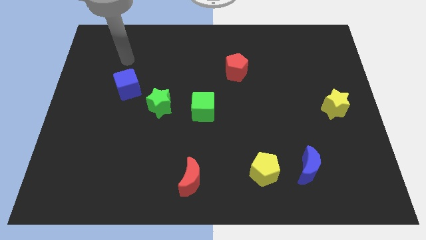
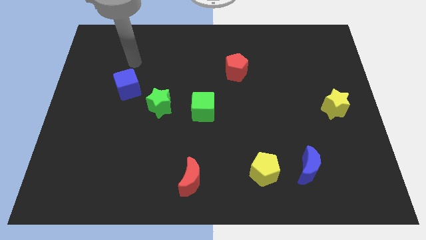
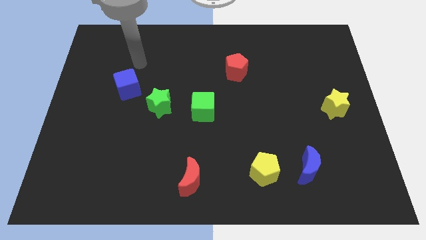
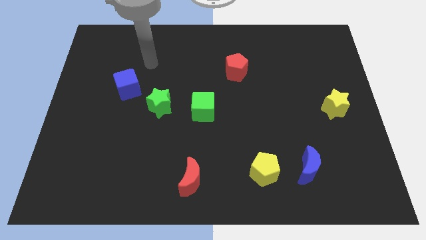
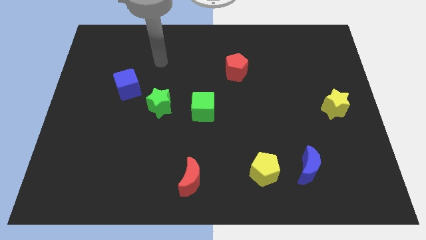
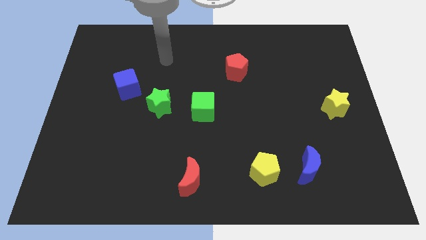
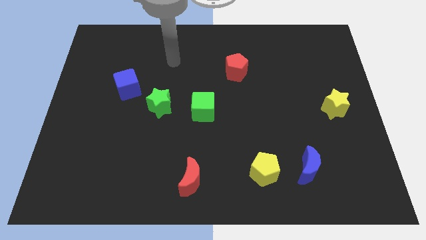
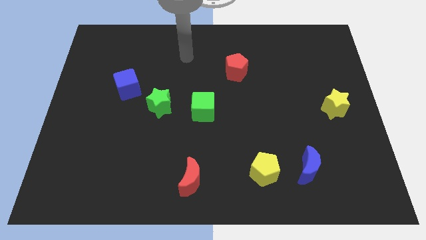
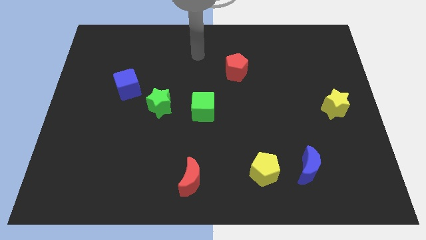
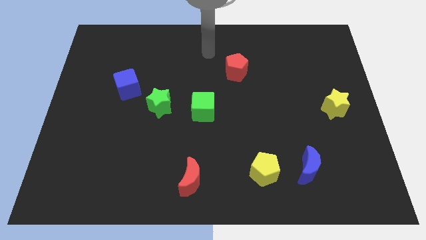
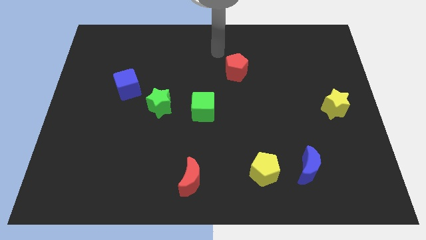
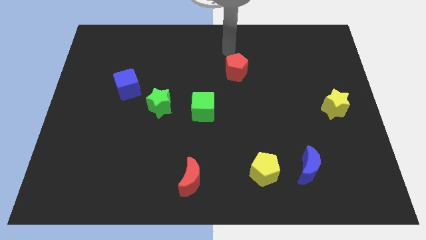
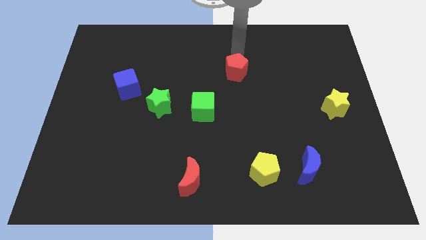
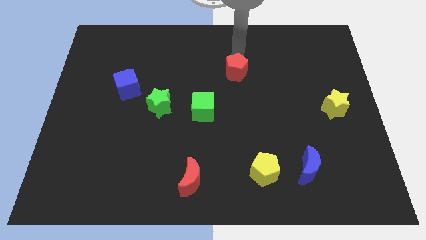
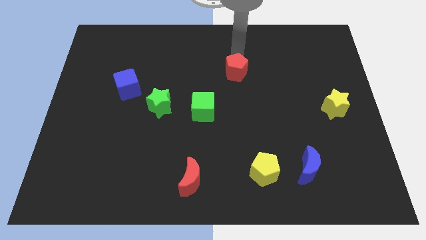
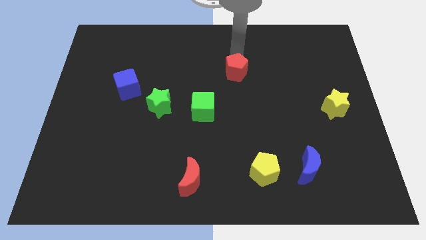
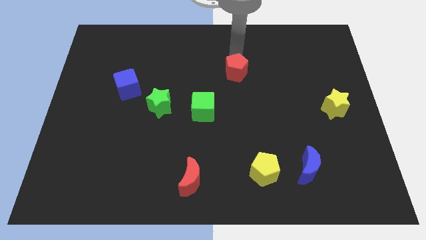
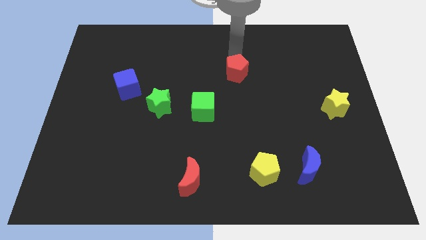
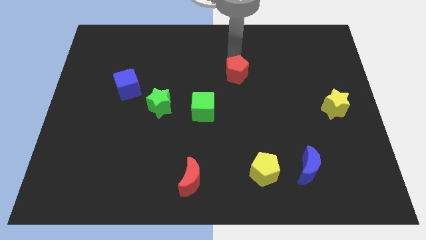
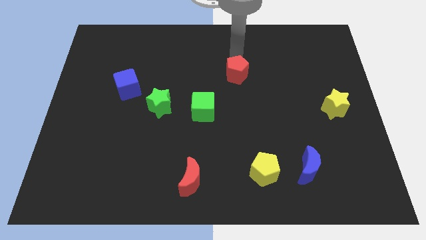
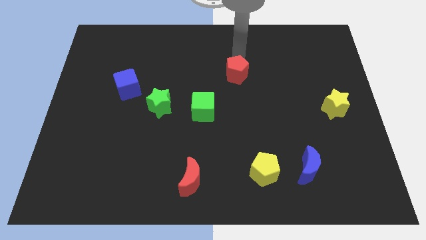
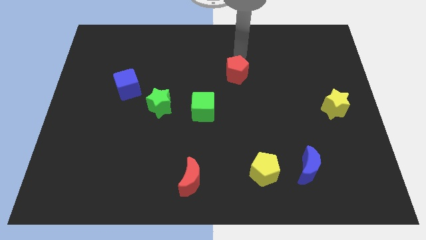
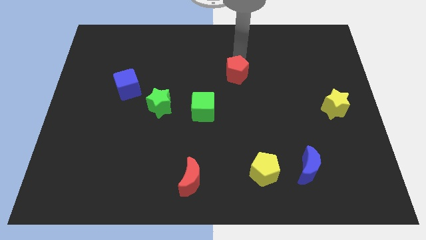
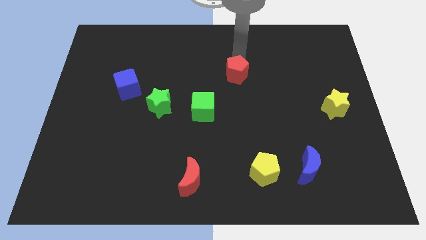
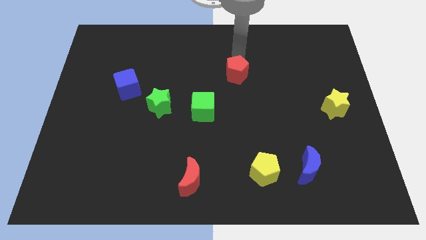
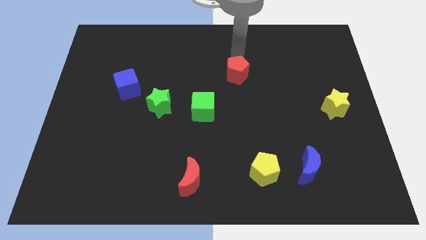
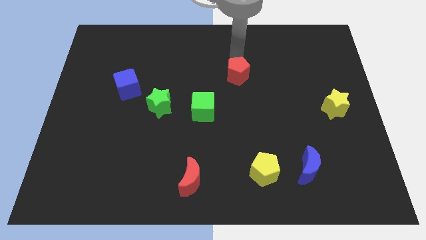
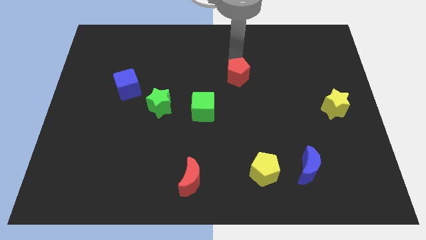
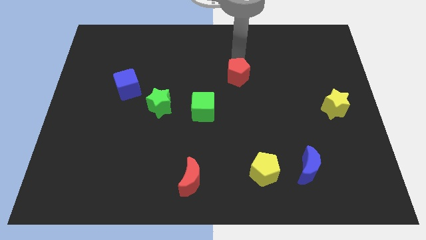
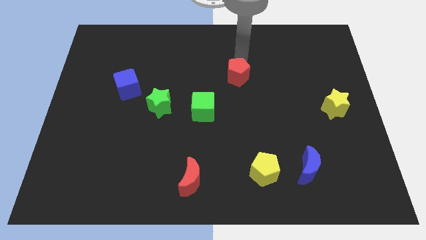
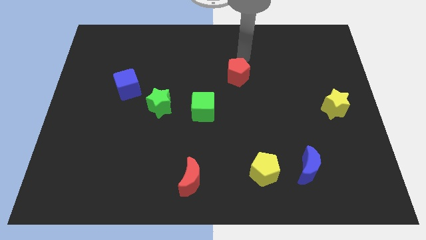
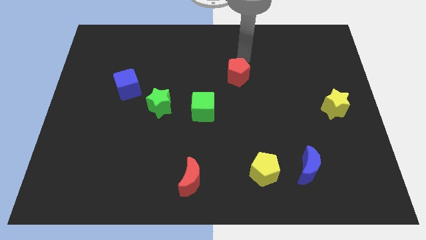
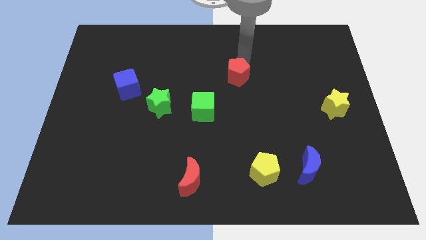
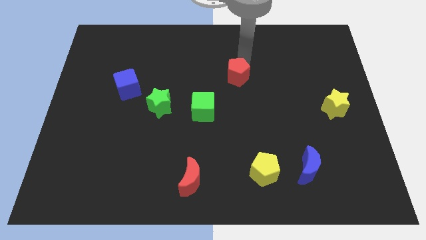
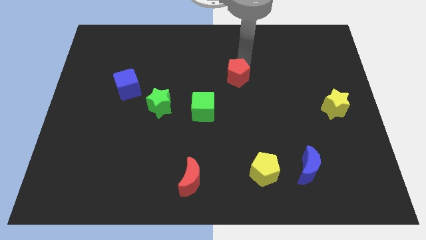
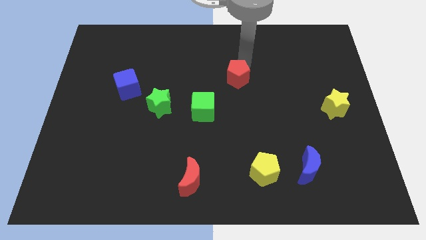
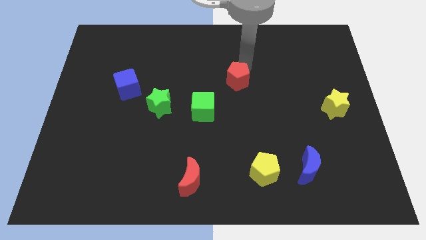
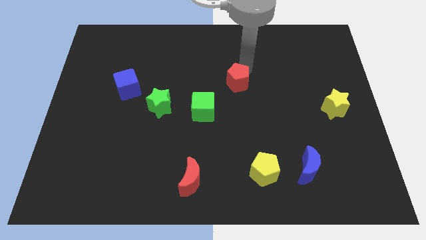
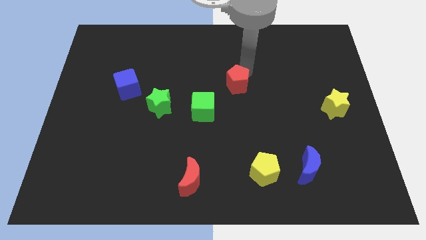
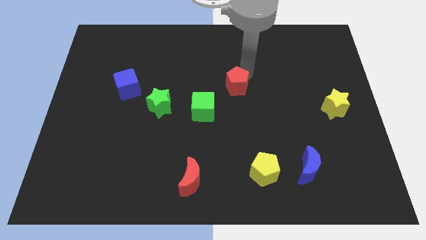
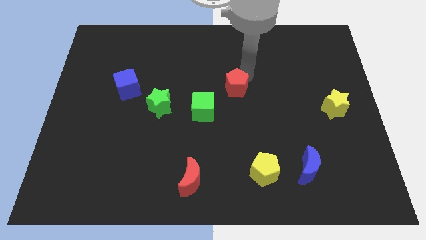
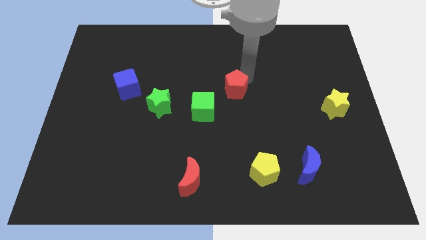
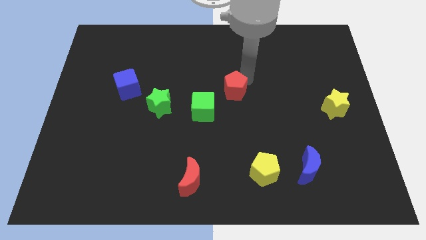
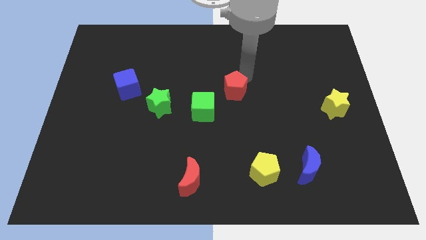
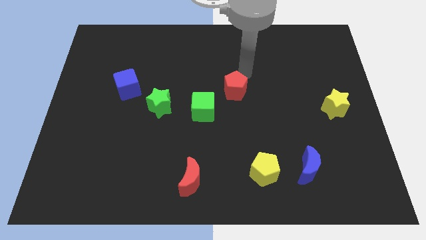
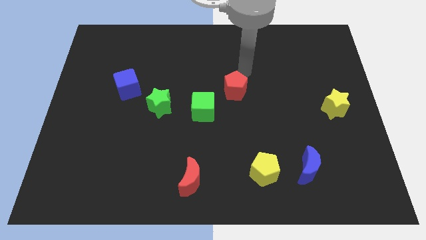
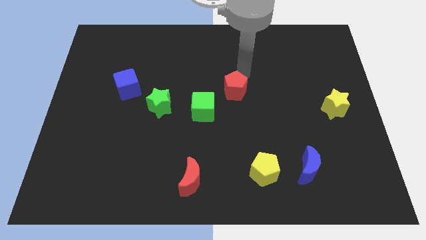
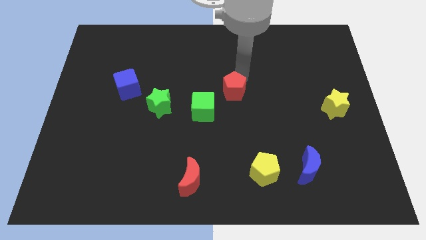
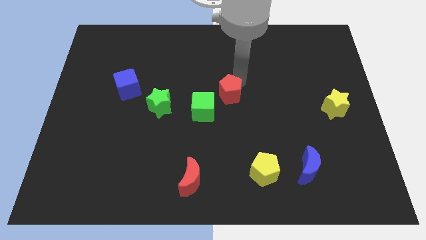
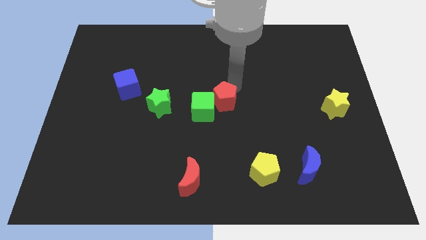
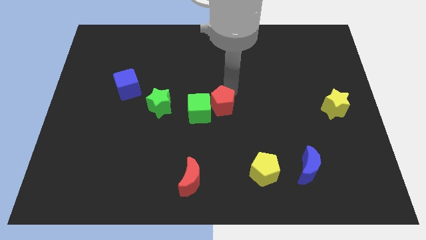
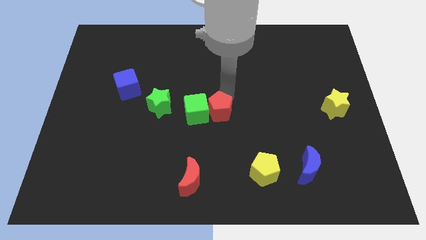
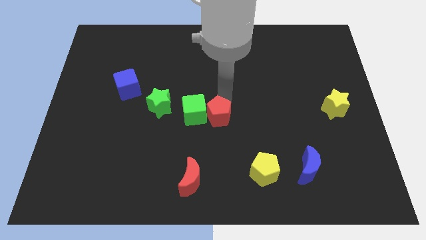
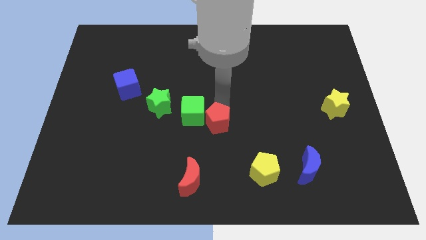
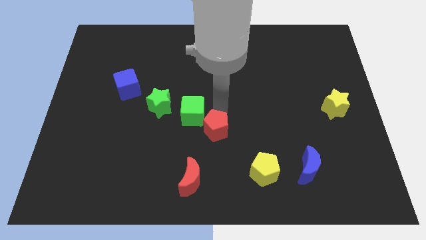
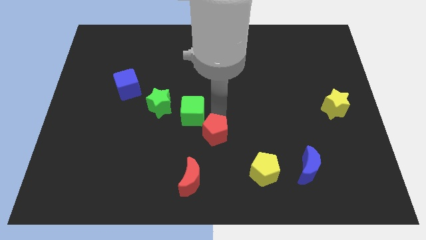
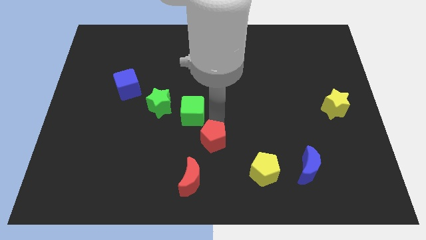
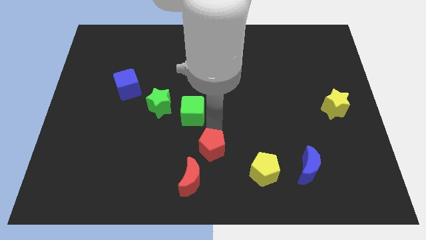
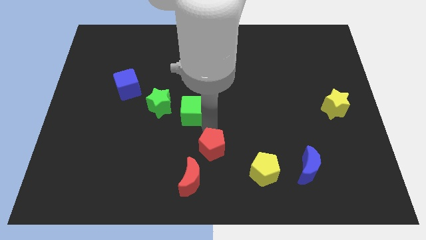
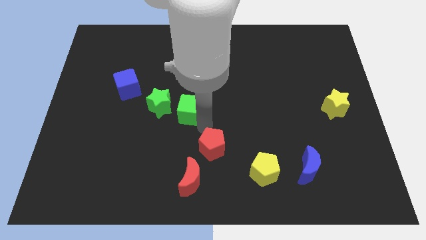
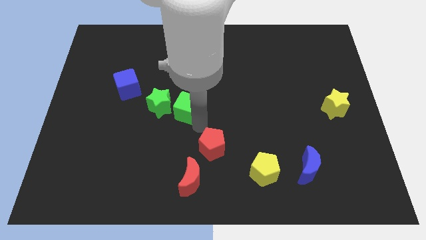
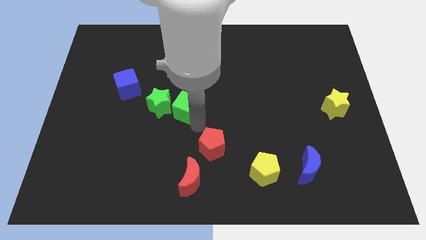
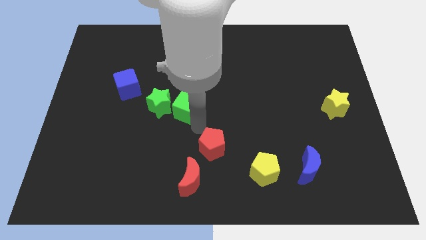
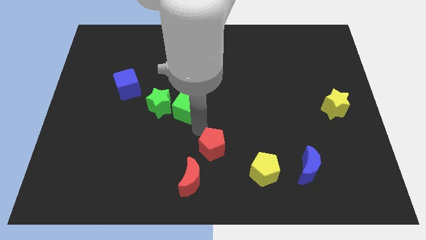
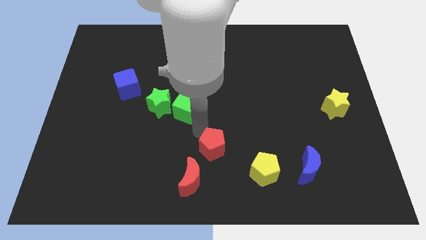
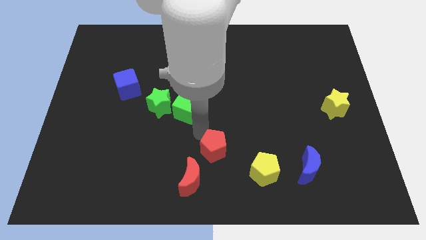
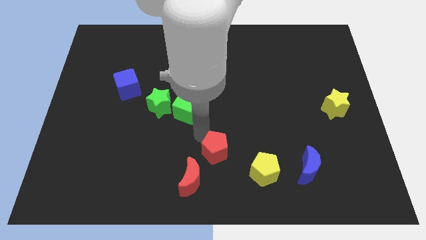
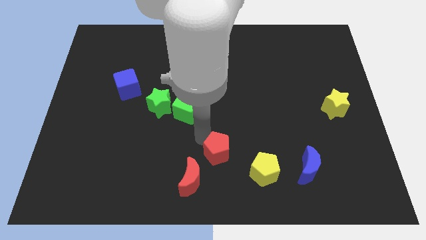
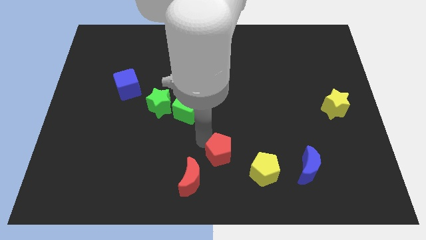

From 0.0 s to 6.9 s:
move the red pentagon to the bottom side
